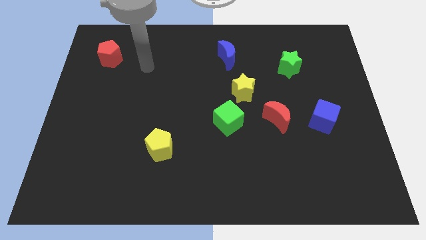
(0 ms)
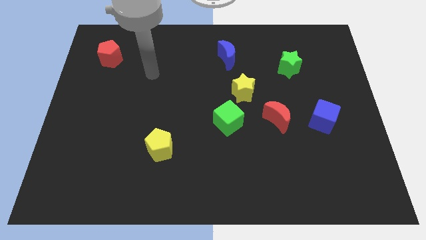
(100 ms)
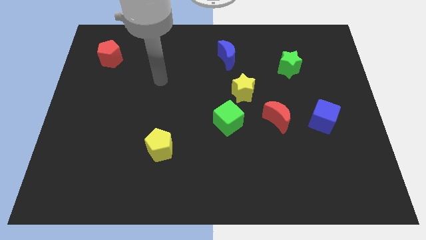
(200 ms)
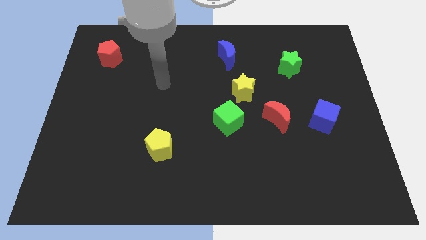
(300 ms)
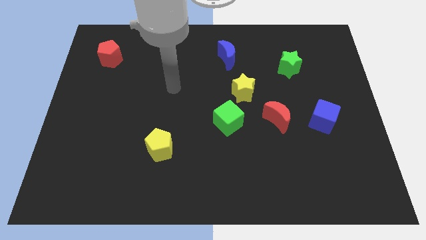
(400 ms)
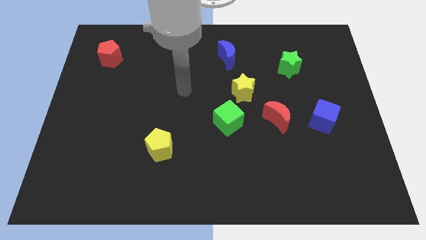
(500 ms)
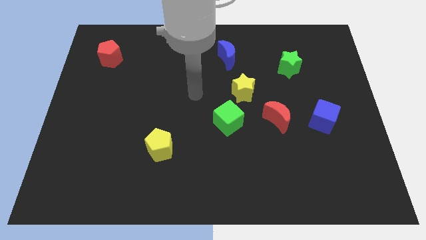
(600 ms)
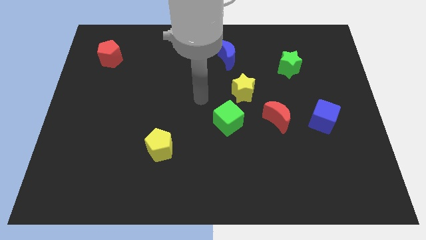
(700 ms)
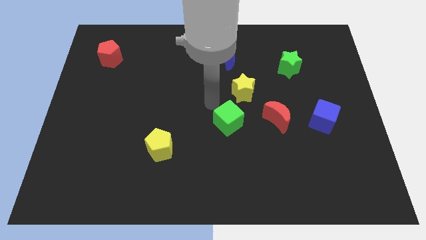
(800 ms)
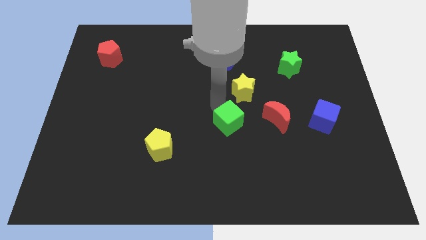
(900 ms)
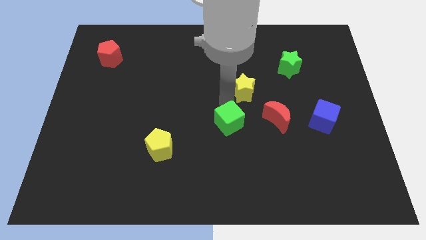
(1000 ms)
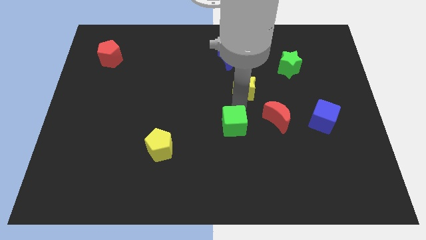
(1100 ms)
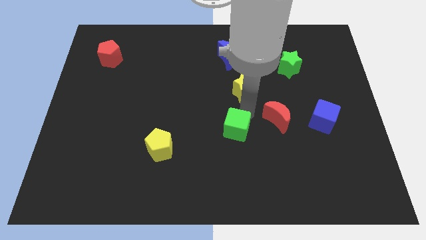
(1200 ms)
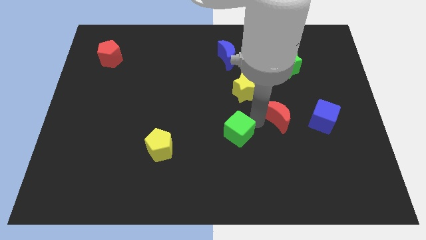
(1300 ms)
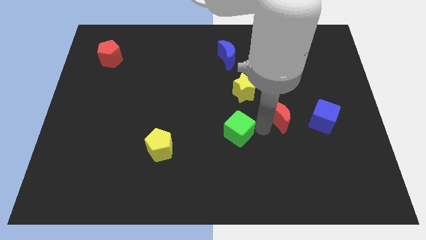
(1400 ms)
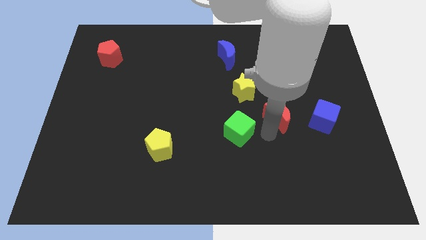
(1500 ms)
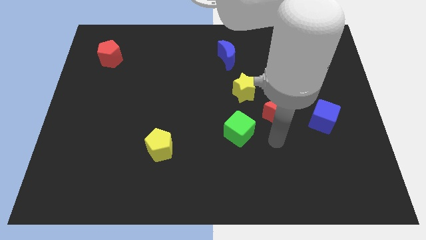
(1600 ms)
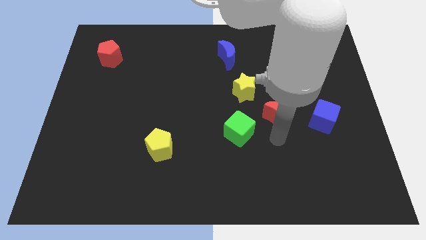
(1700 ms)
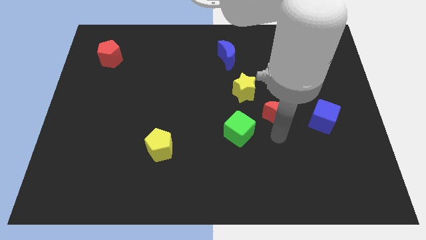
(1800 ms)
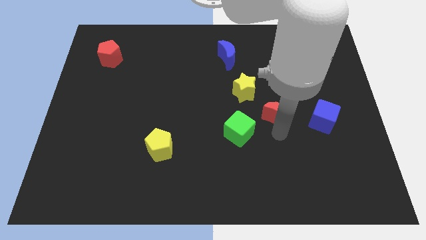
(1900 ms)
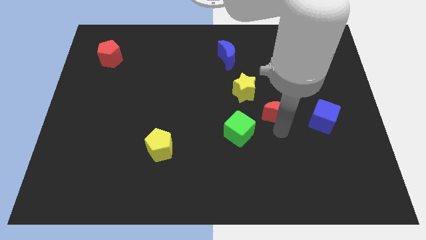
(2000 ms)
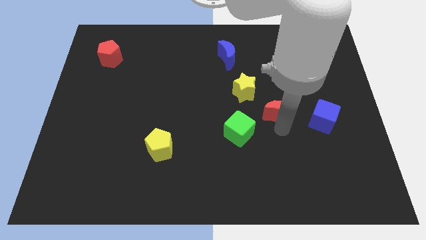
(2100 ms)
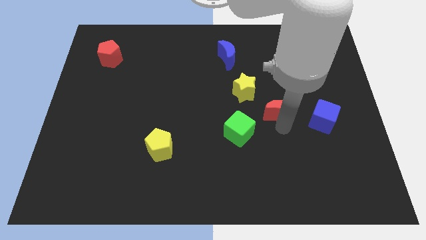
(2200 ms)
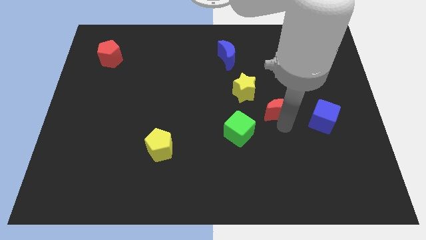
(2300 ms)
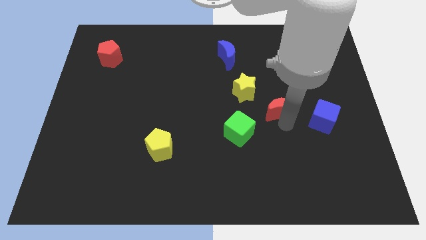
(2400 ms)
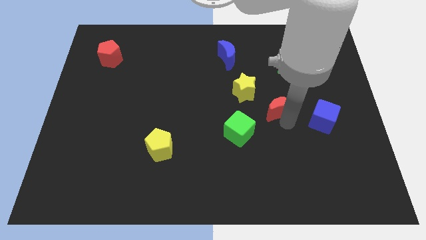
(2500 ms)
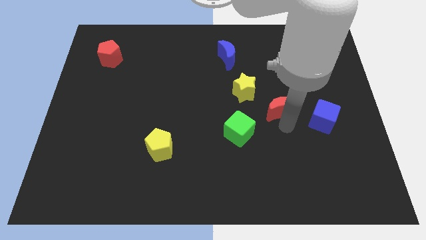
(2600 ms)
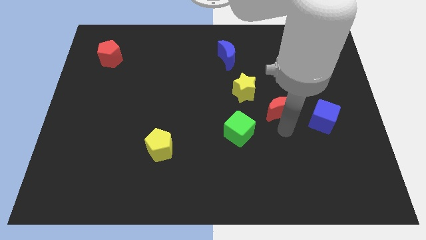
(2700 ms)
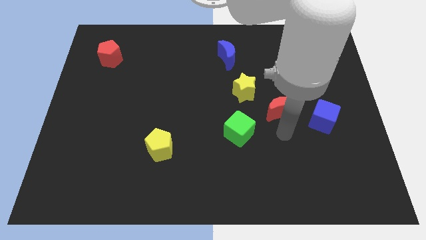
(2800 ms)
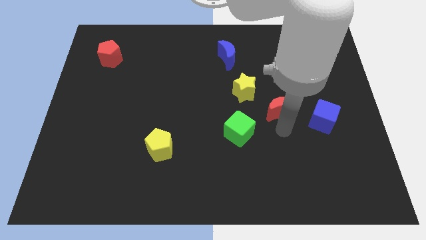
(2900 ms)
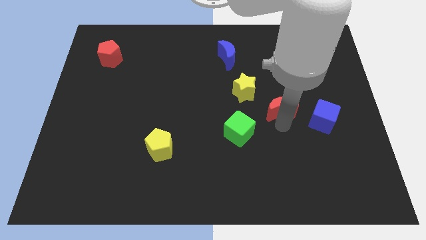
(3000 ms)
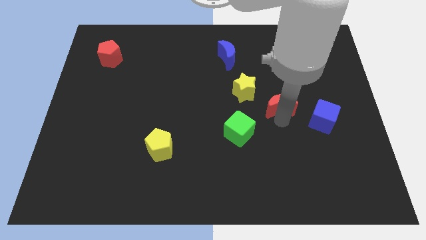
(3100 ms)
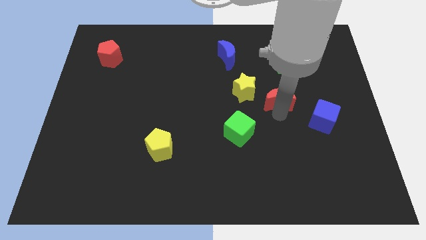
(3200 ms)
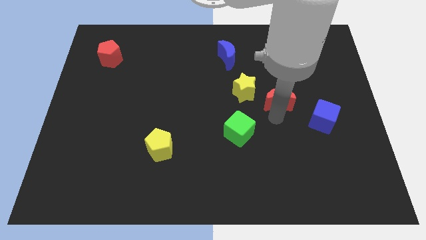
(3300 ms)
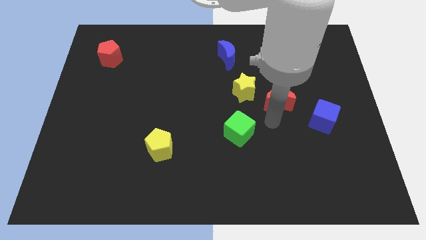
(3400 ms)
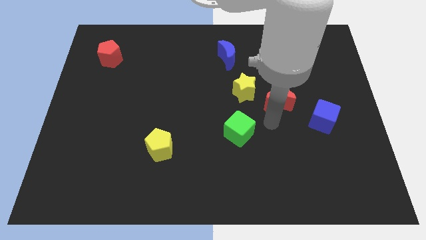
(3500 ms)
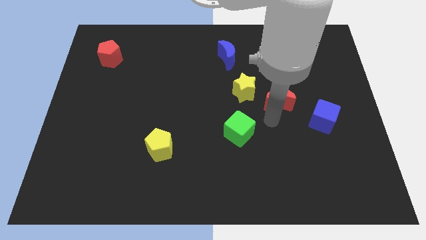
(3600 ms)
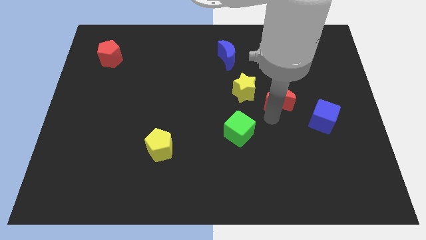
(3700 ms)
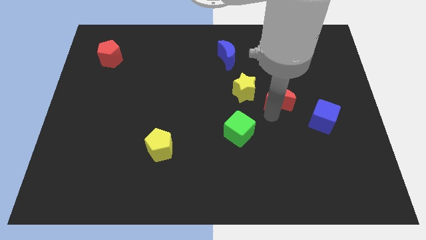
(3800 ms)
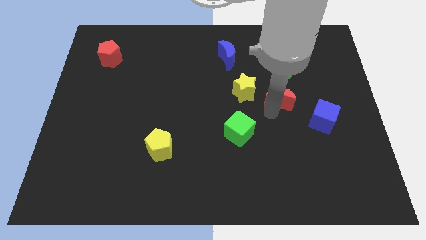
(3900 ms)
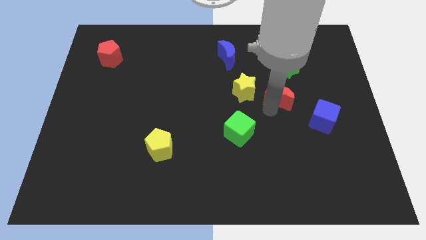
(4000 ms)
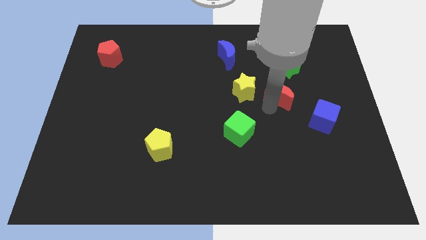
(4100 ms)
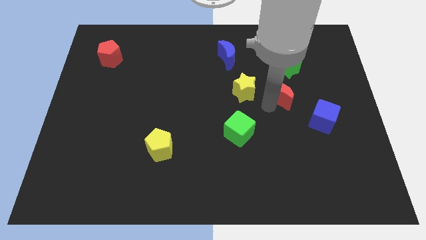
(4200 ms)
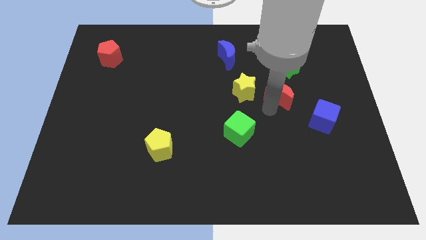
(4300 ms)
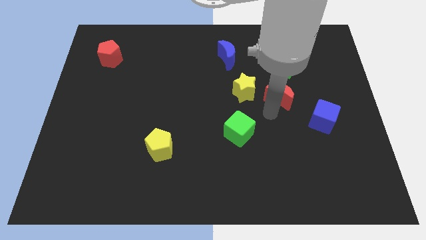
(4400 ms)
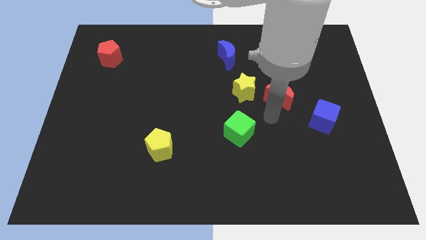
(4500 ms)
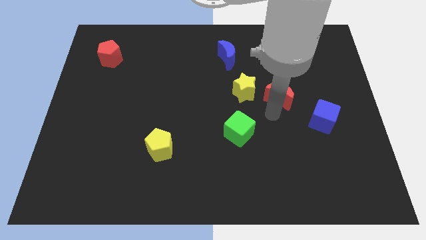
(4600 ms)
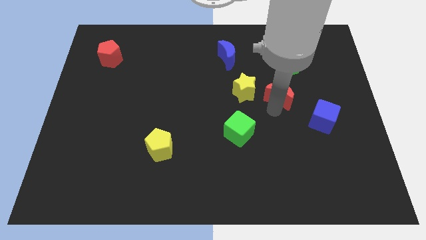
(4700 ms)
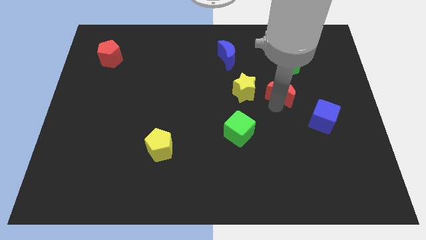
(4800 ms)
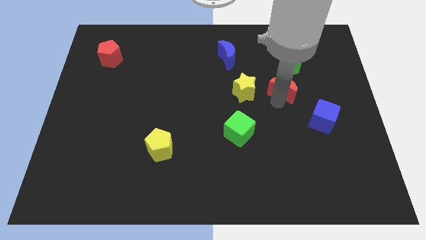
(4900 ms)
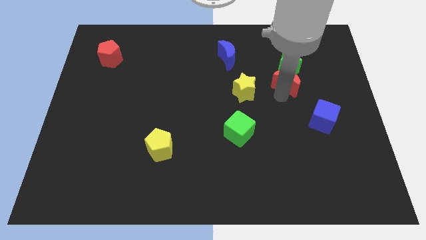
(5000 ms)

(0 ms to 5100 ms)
put the red moon close to the green star

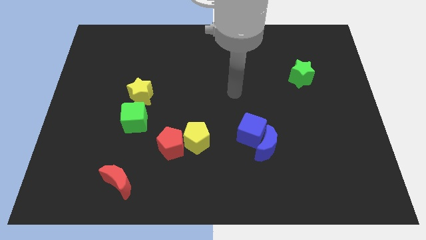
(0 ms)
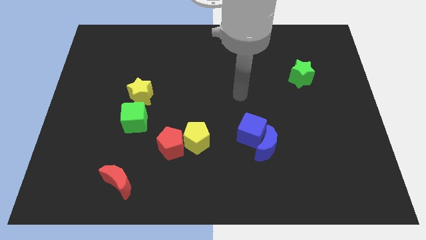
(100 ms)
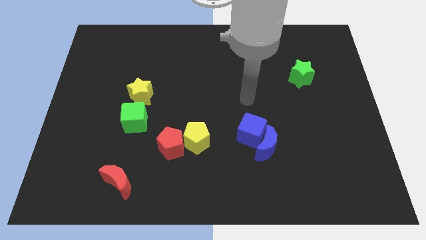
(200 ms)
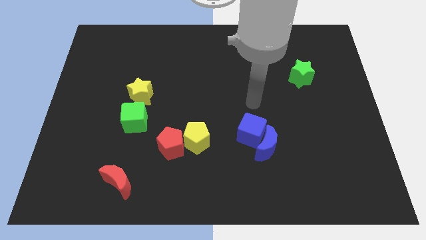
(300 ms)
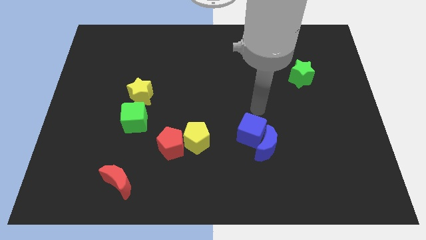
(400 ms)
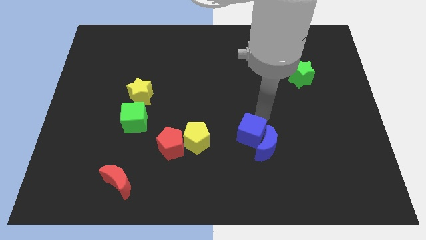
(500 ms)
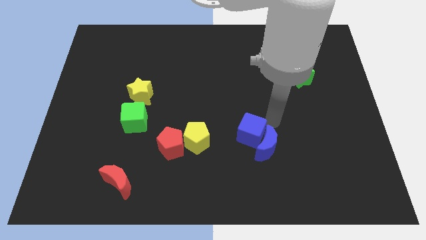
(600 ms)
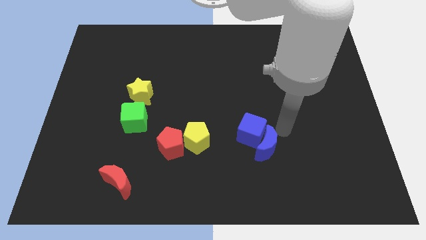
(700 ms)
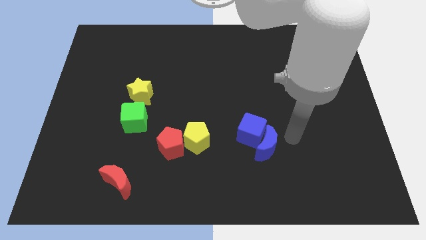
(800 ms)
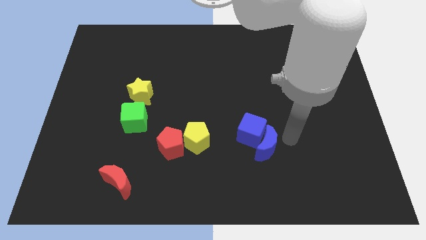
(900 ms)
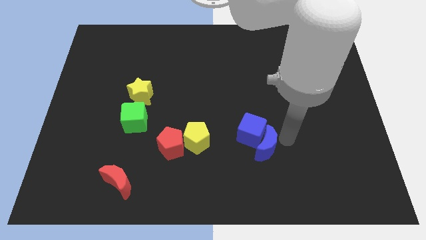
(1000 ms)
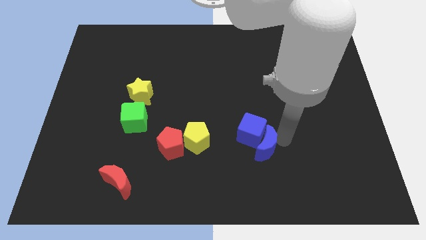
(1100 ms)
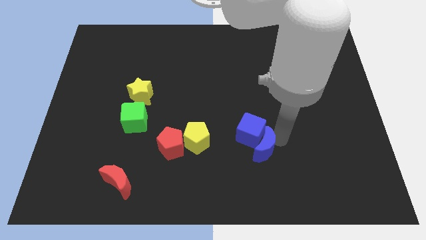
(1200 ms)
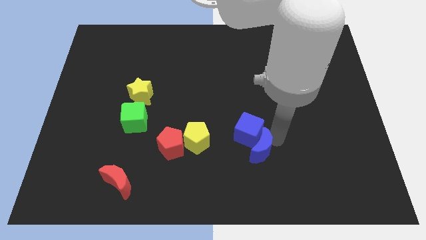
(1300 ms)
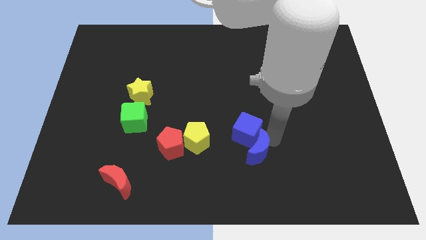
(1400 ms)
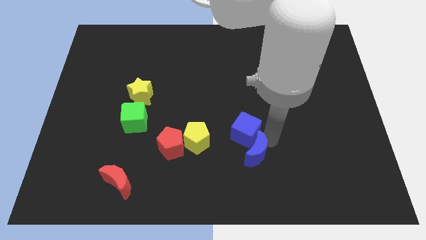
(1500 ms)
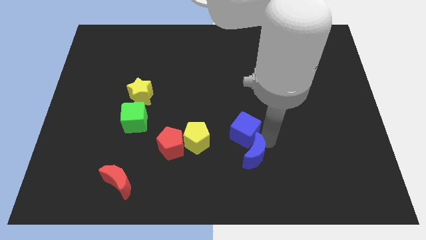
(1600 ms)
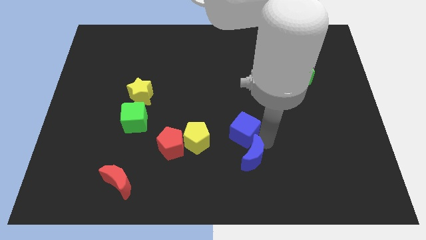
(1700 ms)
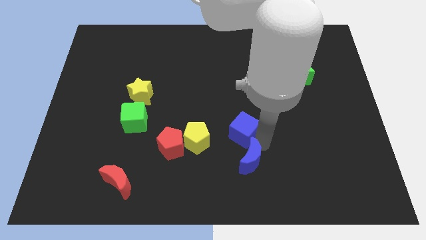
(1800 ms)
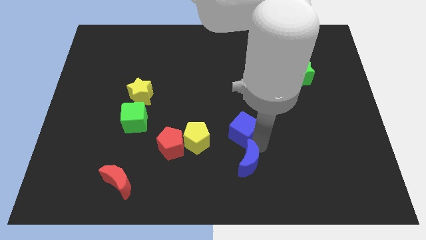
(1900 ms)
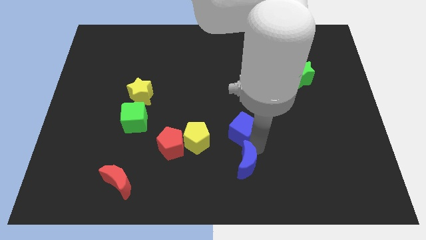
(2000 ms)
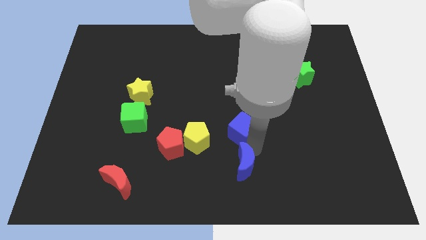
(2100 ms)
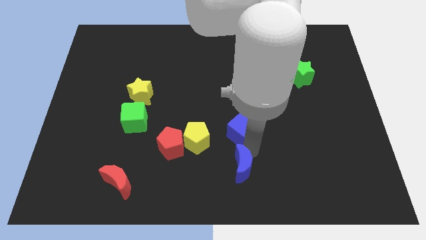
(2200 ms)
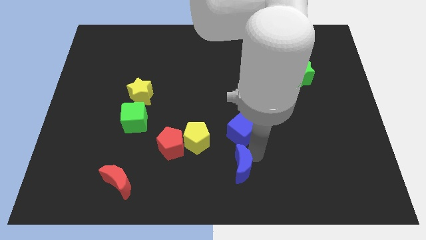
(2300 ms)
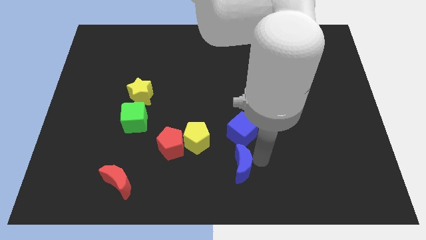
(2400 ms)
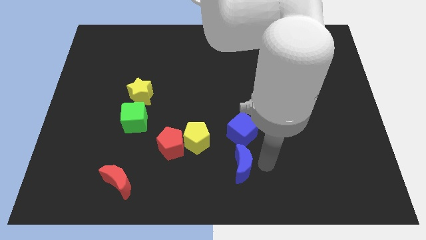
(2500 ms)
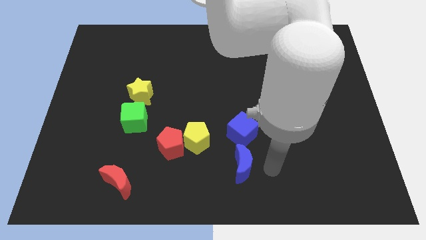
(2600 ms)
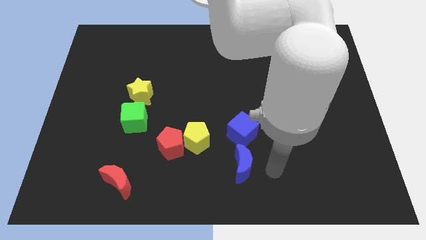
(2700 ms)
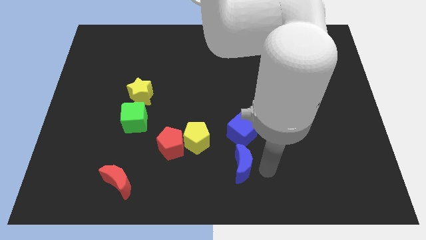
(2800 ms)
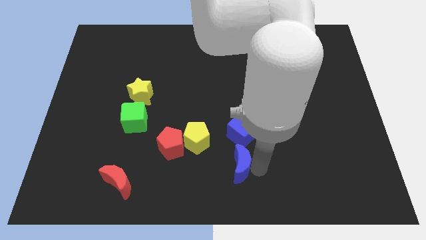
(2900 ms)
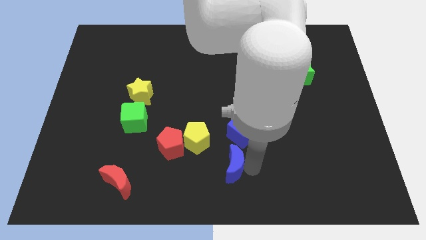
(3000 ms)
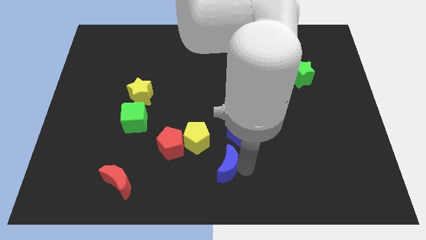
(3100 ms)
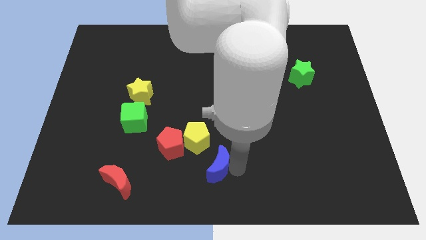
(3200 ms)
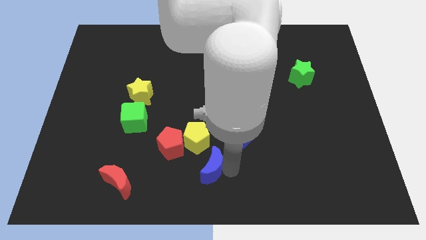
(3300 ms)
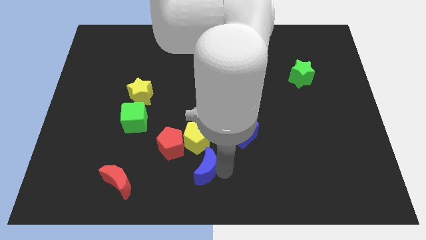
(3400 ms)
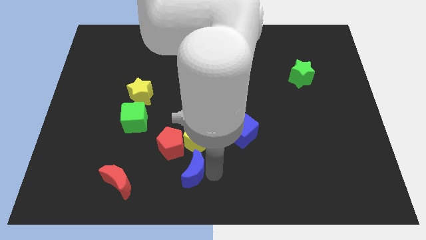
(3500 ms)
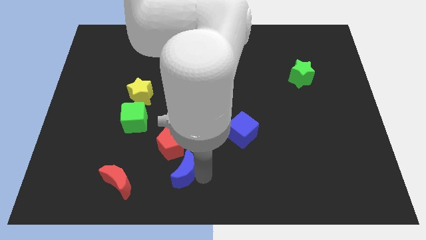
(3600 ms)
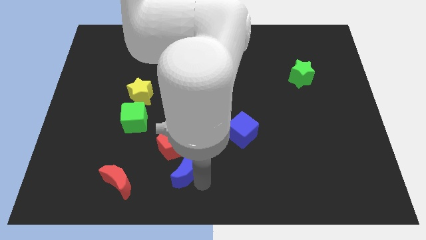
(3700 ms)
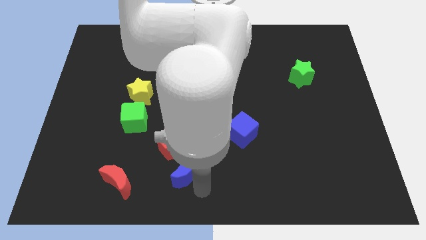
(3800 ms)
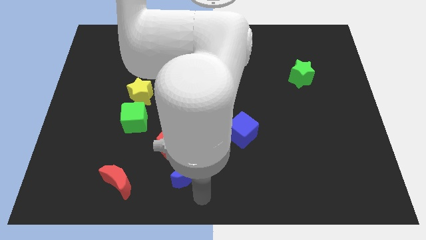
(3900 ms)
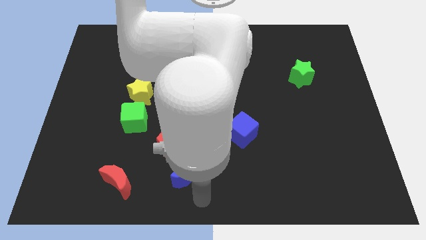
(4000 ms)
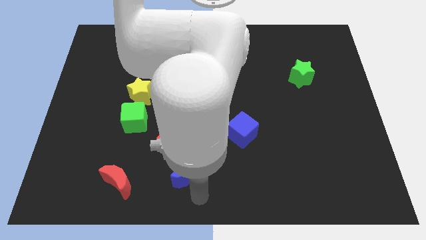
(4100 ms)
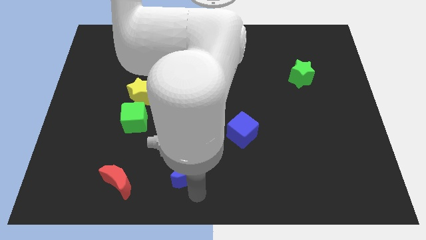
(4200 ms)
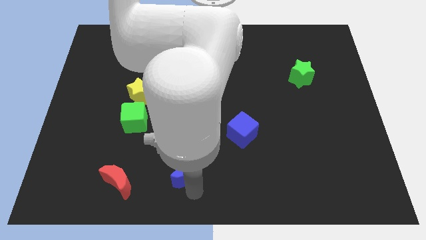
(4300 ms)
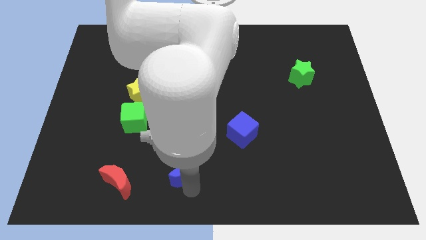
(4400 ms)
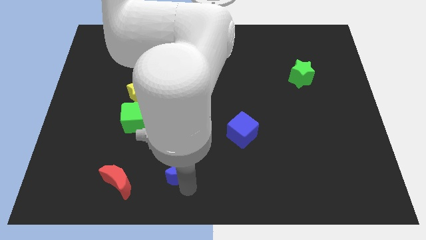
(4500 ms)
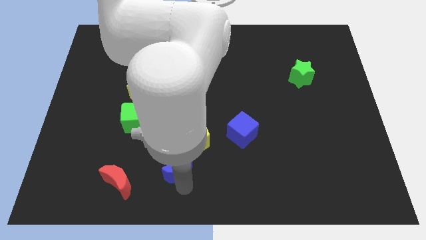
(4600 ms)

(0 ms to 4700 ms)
put the blue moon towards the red pentagon
